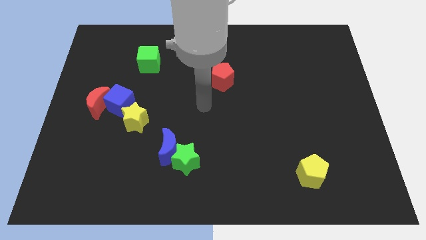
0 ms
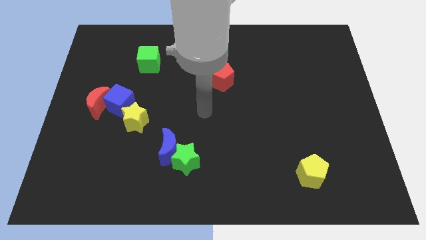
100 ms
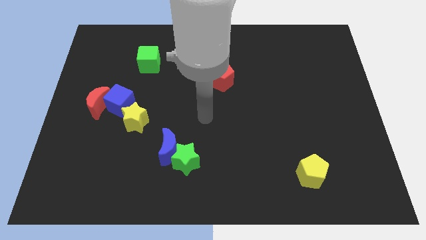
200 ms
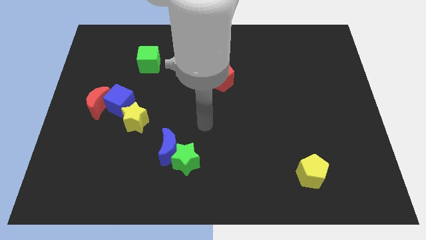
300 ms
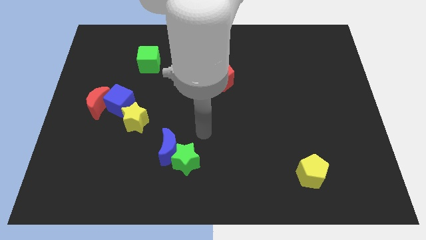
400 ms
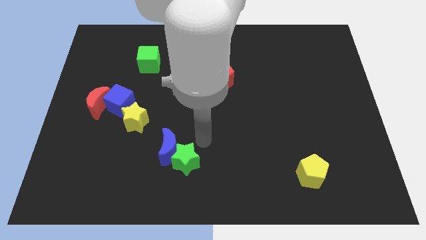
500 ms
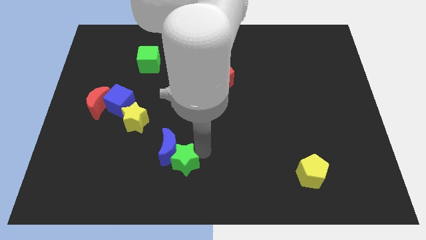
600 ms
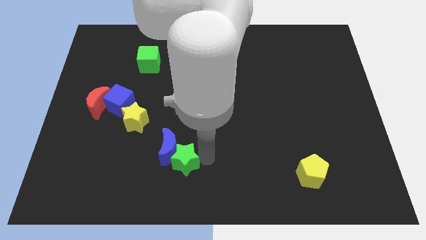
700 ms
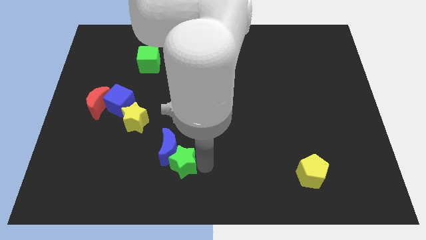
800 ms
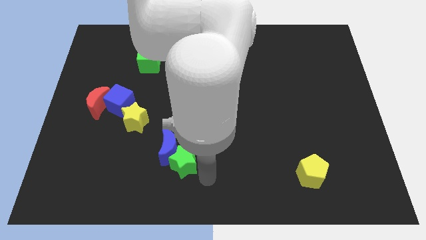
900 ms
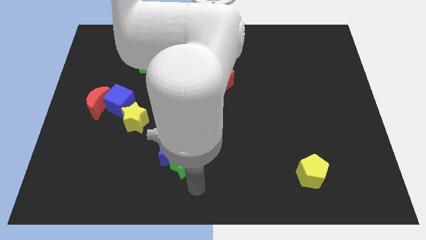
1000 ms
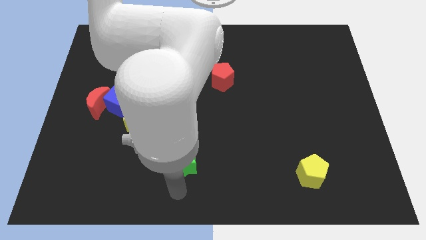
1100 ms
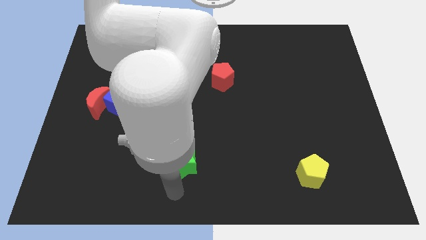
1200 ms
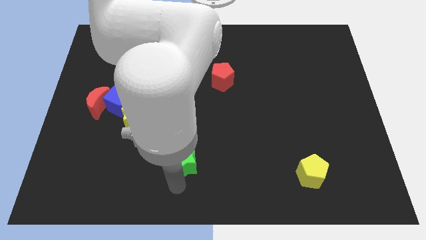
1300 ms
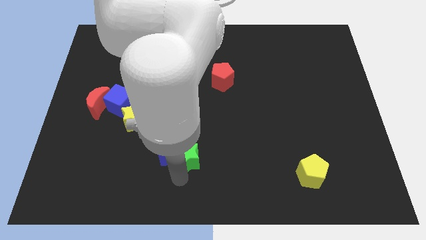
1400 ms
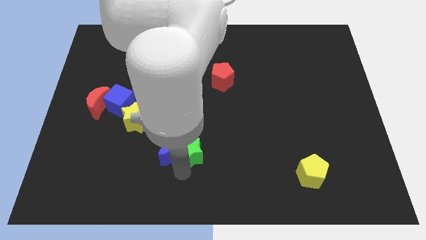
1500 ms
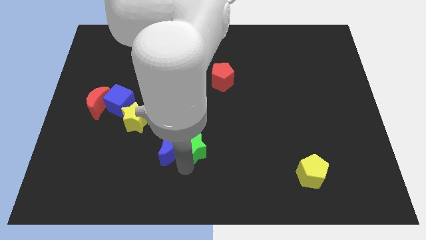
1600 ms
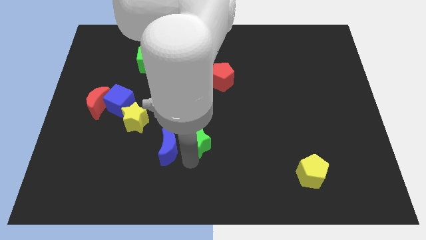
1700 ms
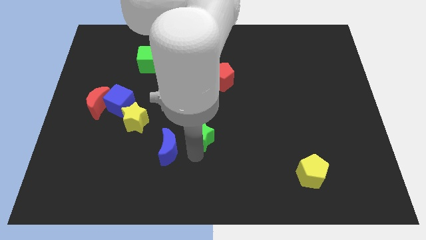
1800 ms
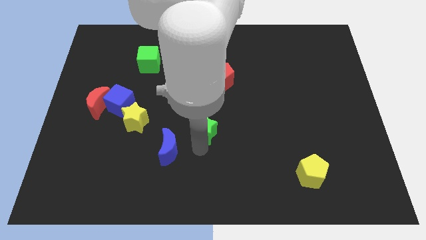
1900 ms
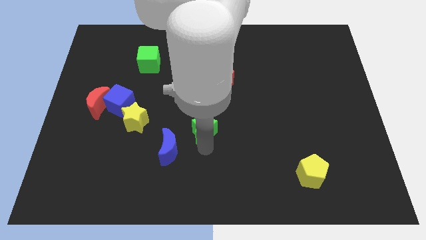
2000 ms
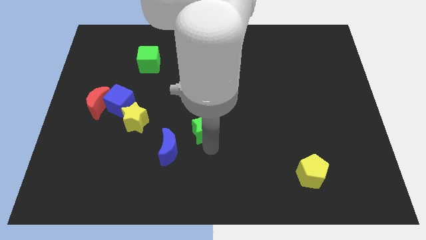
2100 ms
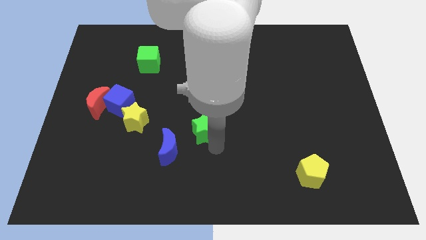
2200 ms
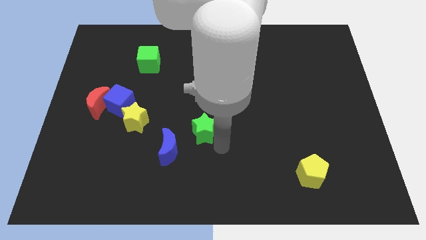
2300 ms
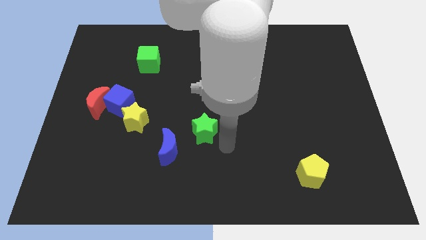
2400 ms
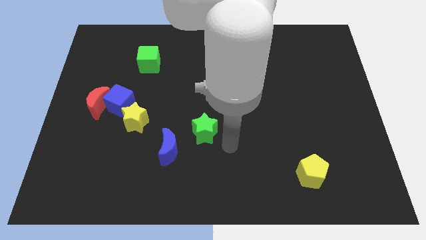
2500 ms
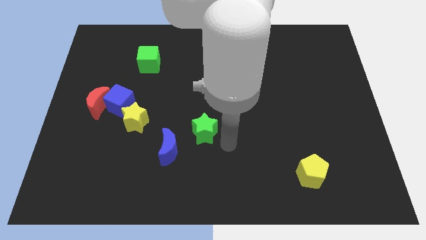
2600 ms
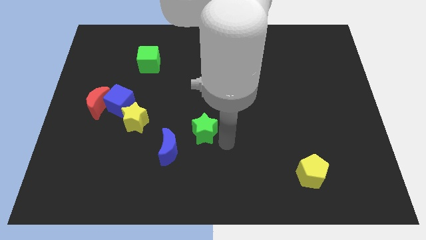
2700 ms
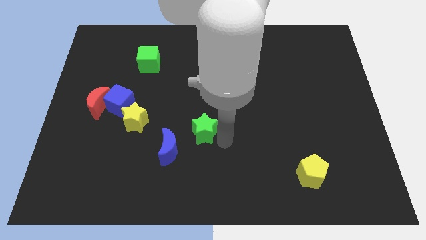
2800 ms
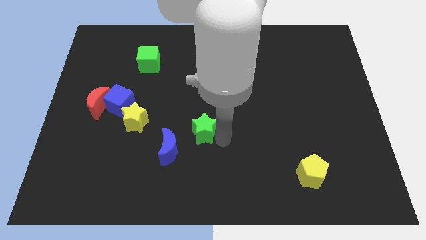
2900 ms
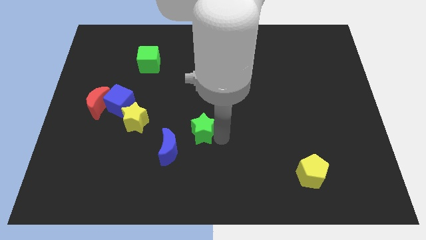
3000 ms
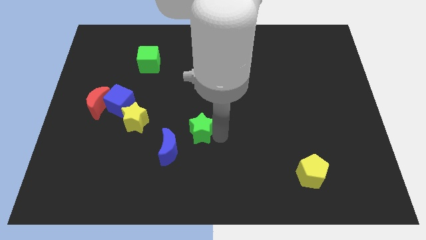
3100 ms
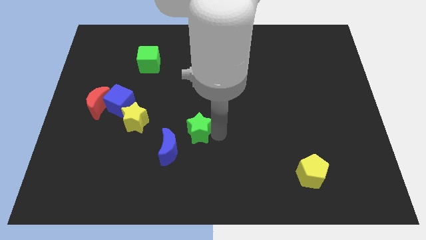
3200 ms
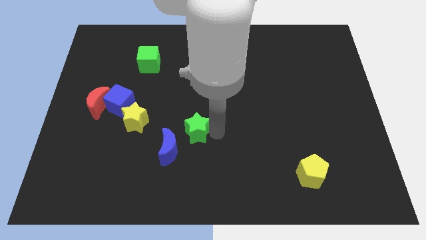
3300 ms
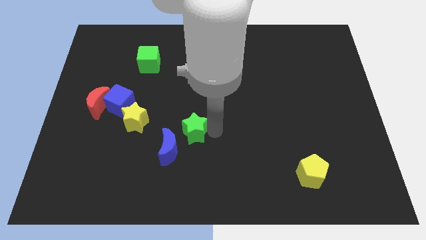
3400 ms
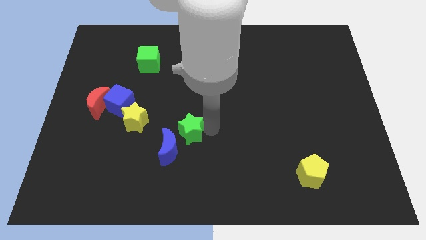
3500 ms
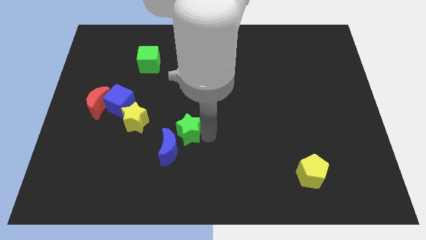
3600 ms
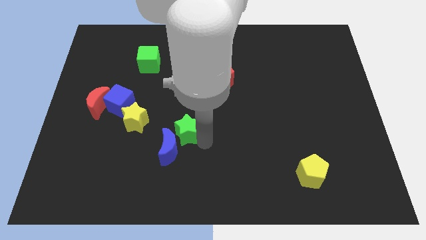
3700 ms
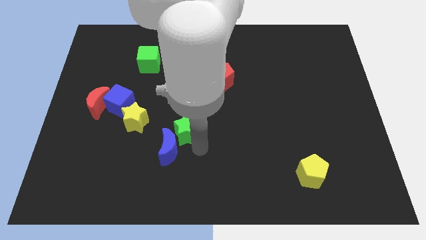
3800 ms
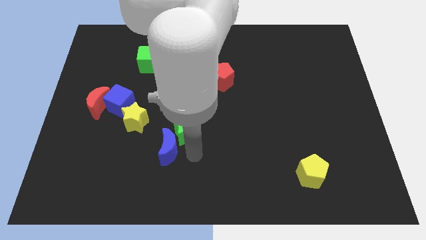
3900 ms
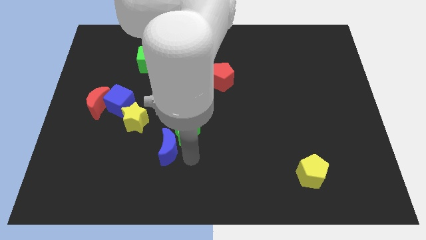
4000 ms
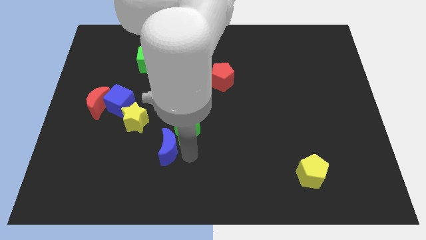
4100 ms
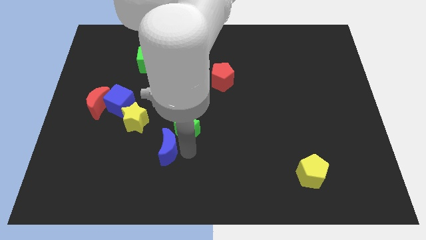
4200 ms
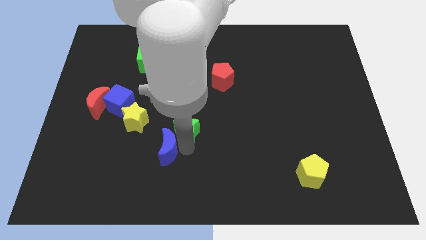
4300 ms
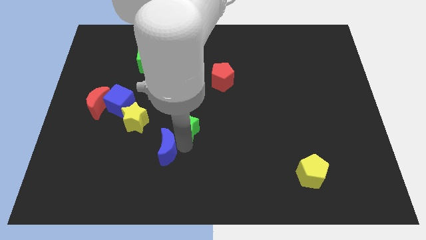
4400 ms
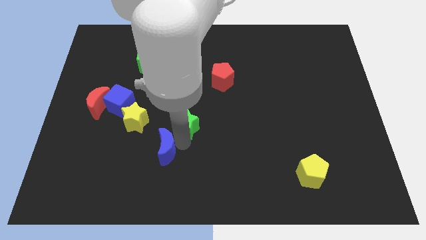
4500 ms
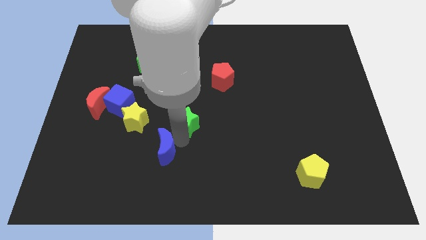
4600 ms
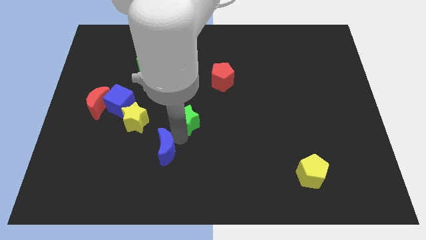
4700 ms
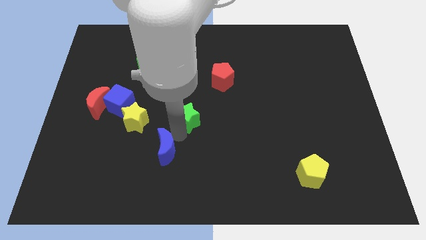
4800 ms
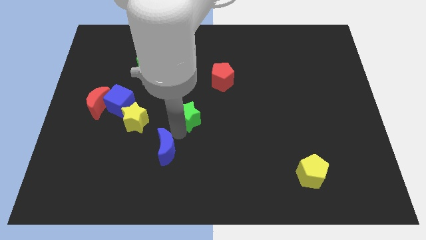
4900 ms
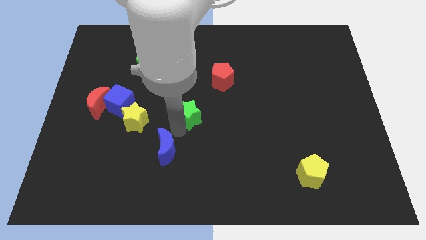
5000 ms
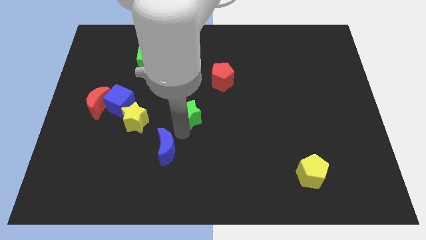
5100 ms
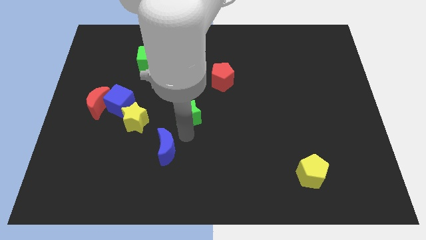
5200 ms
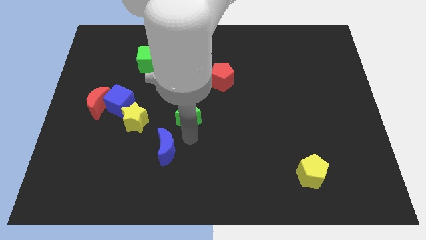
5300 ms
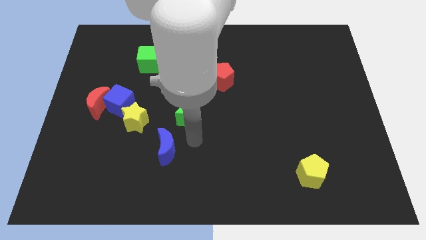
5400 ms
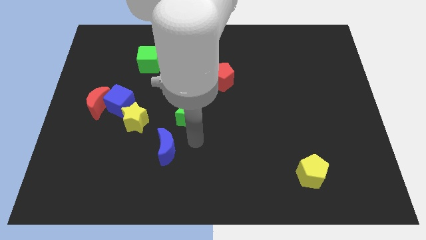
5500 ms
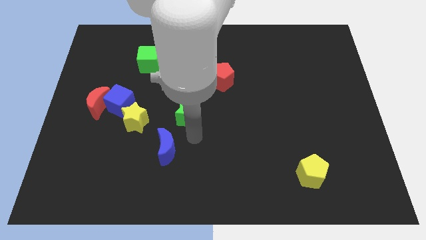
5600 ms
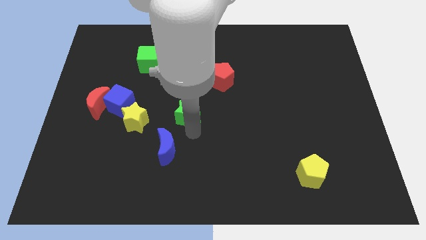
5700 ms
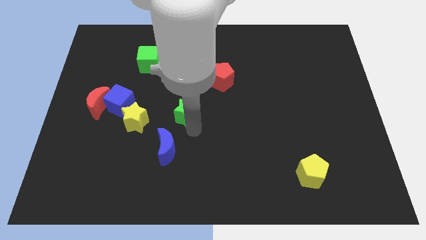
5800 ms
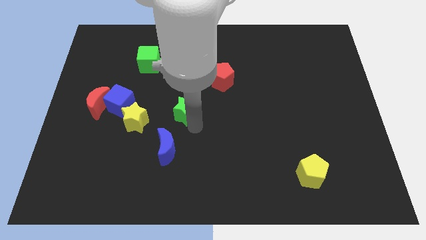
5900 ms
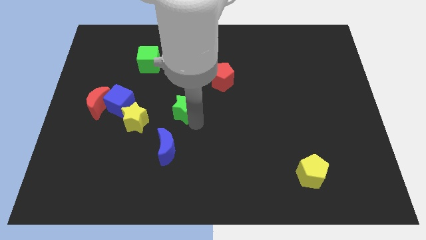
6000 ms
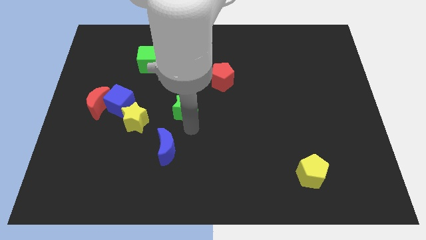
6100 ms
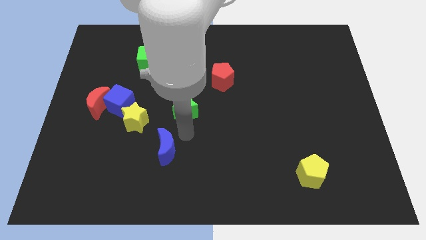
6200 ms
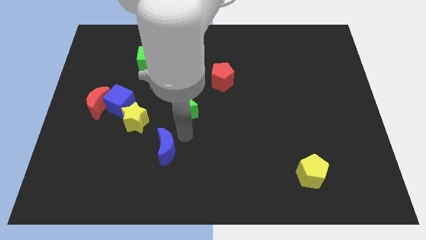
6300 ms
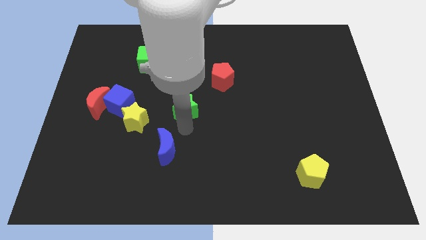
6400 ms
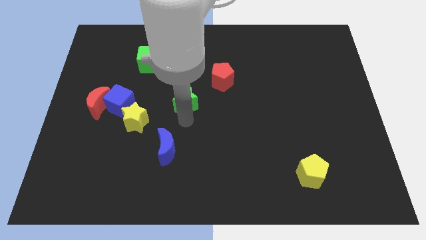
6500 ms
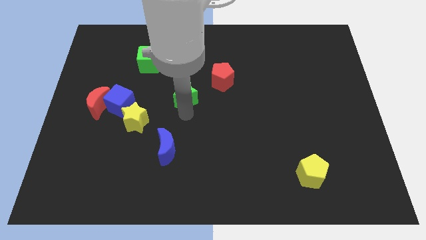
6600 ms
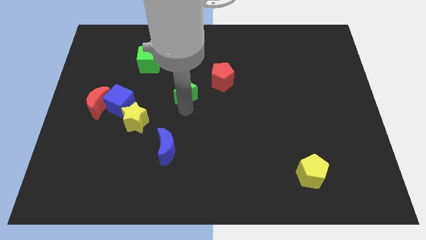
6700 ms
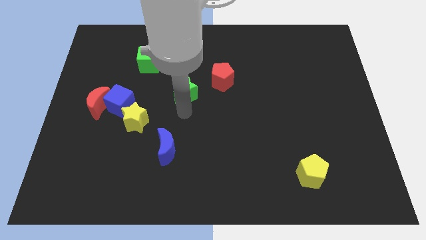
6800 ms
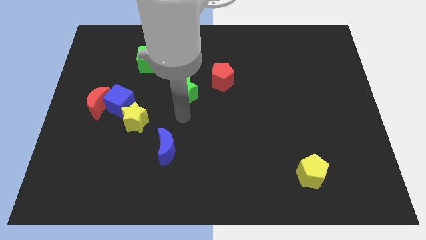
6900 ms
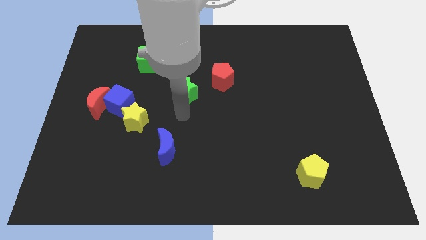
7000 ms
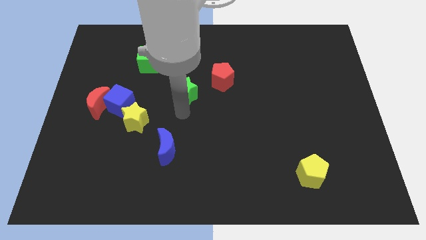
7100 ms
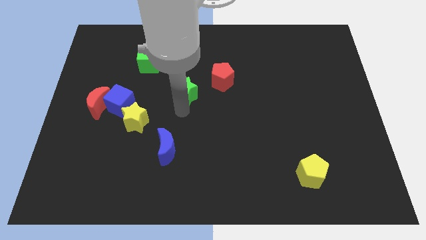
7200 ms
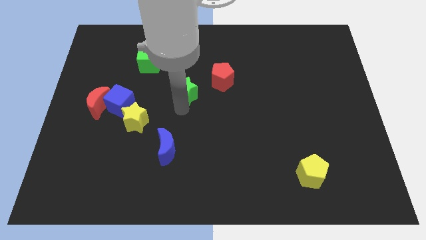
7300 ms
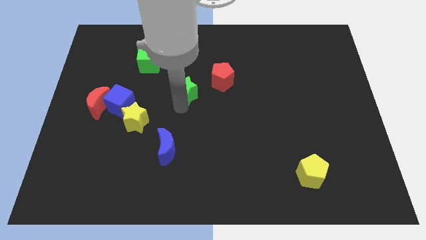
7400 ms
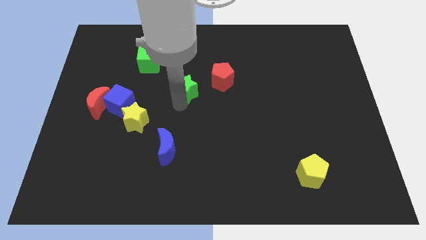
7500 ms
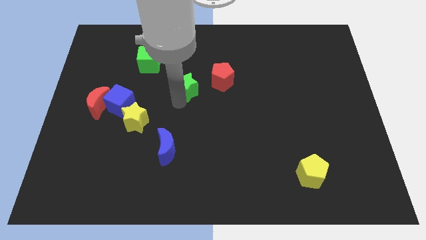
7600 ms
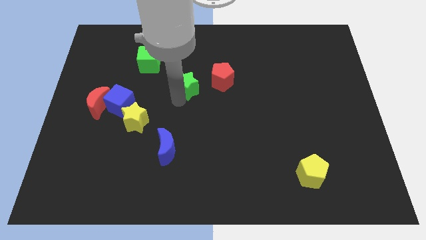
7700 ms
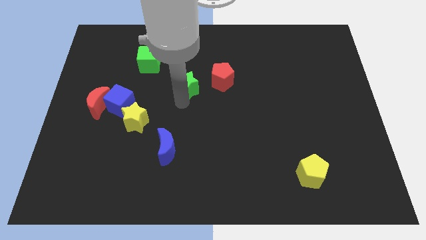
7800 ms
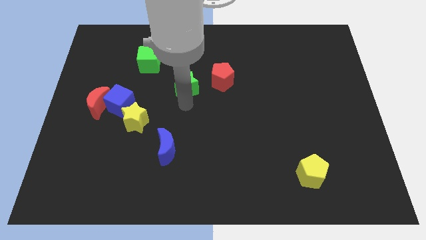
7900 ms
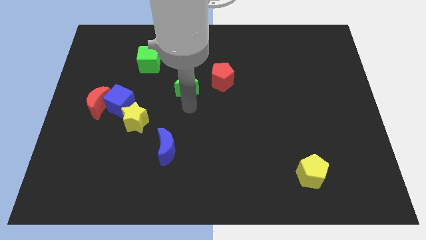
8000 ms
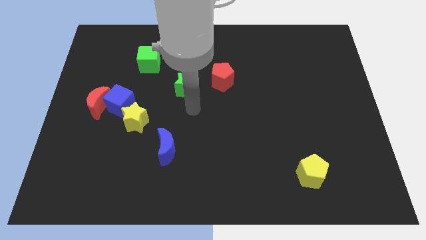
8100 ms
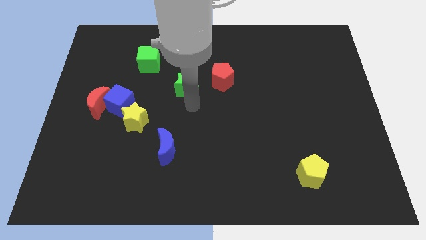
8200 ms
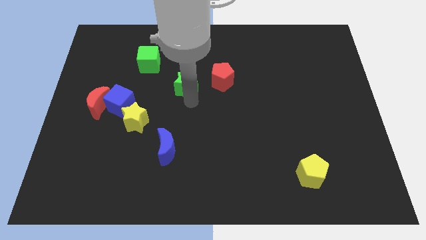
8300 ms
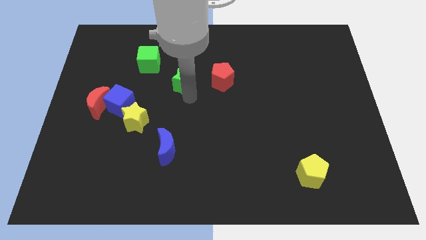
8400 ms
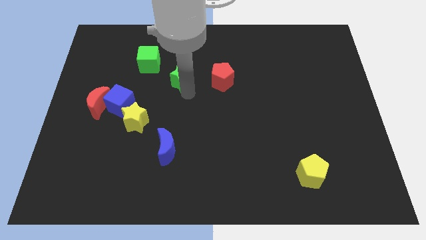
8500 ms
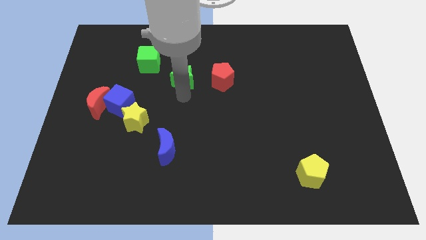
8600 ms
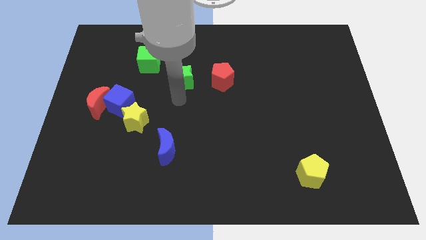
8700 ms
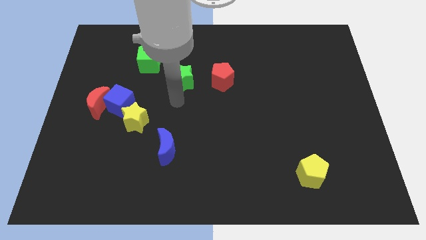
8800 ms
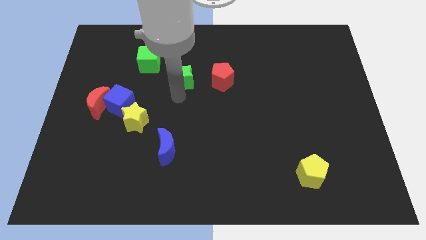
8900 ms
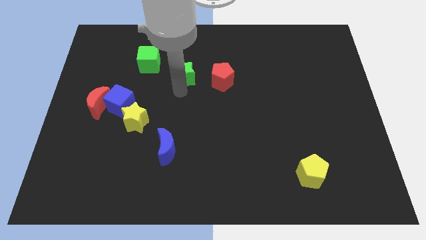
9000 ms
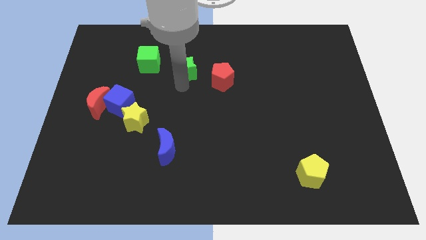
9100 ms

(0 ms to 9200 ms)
put the green star to the right side of the green cube
